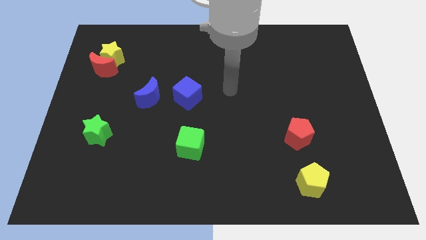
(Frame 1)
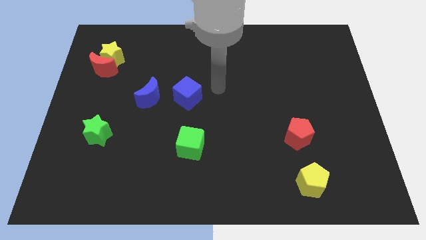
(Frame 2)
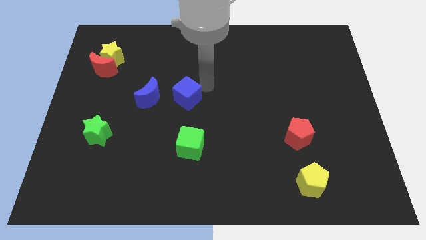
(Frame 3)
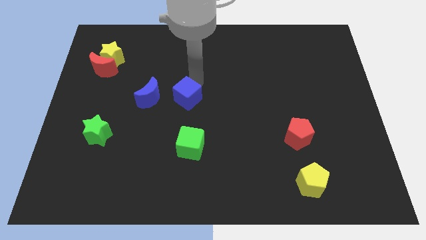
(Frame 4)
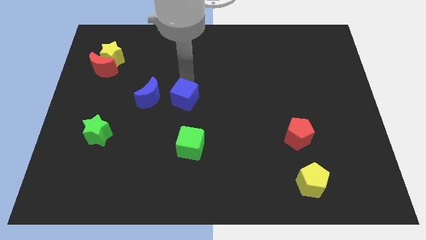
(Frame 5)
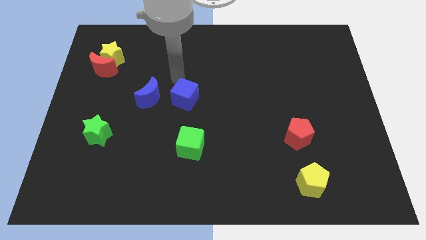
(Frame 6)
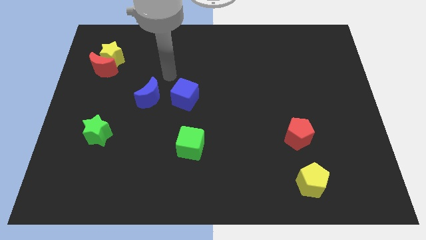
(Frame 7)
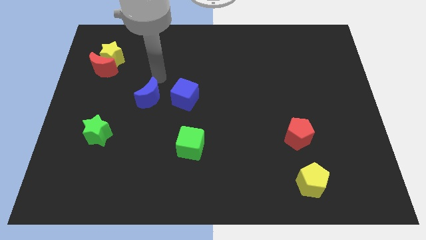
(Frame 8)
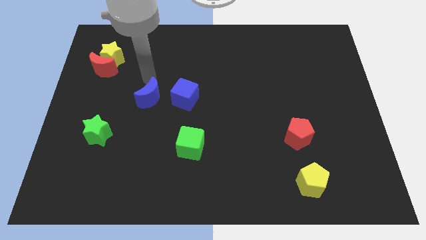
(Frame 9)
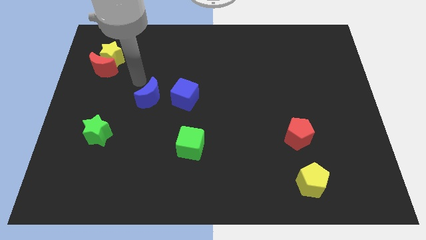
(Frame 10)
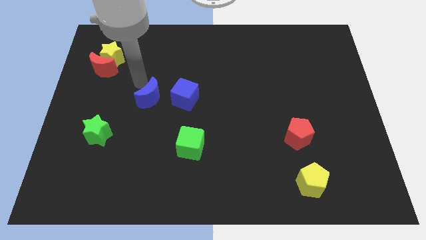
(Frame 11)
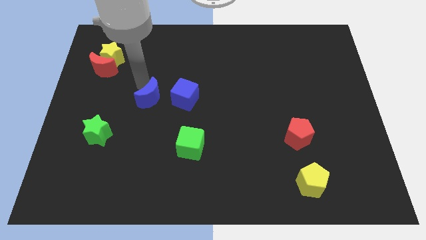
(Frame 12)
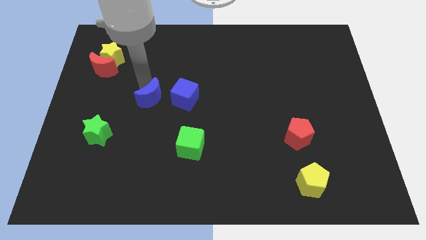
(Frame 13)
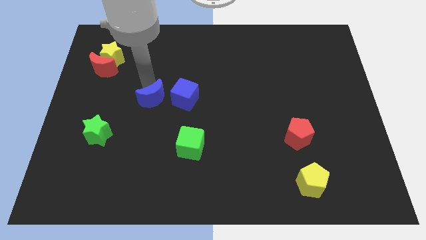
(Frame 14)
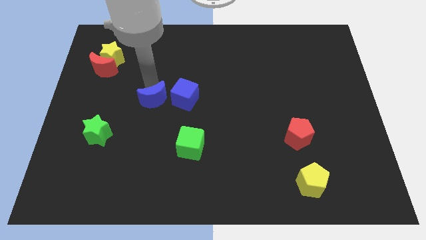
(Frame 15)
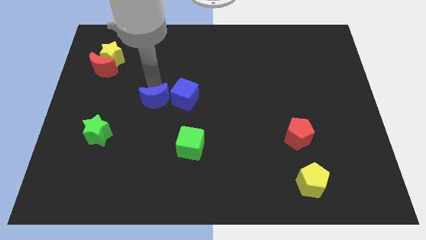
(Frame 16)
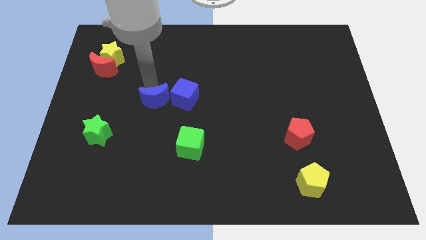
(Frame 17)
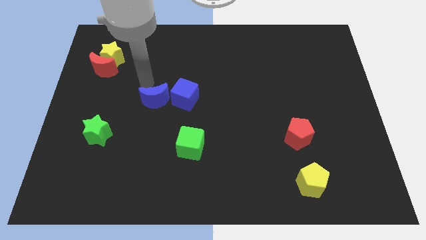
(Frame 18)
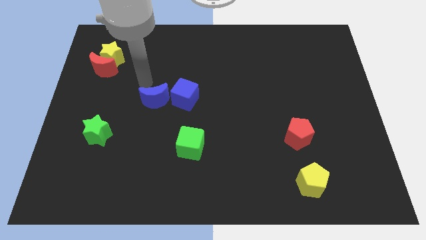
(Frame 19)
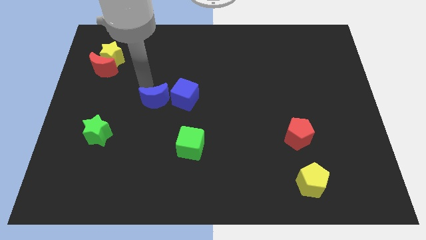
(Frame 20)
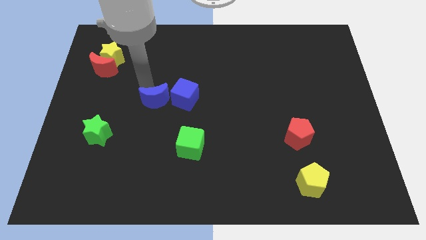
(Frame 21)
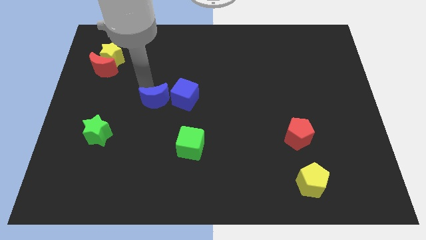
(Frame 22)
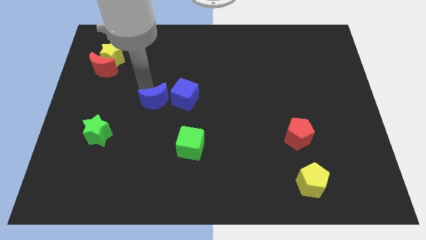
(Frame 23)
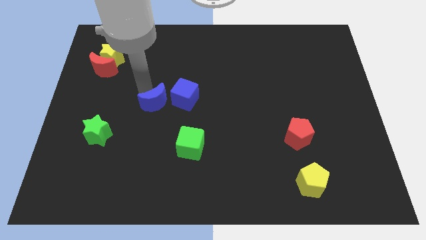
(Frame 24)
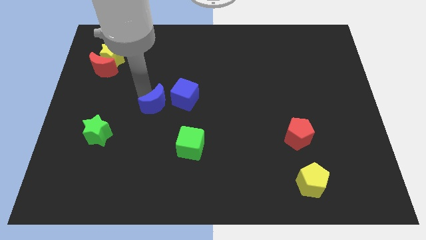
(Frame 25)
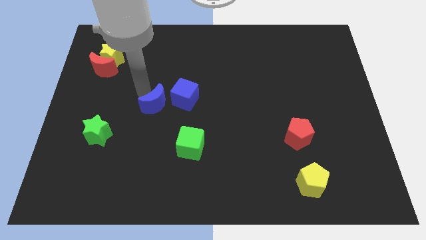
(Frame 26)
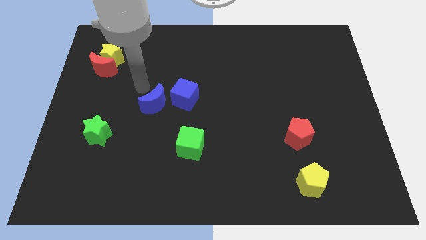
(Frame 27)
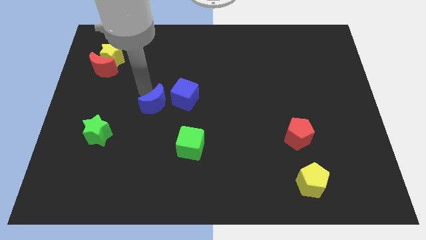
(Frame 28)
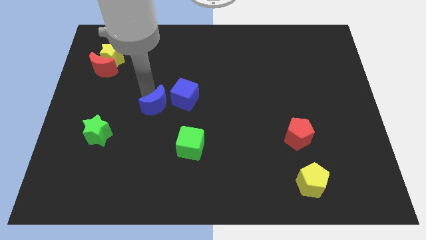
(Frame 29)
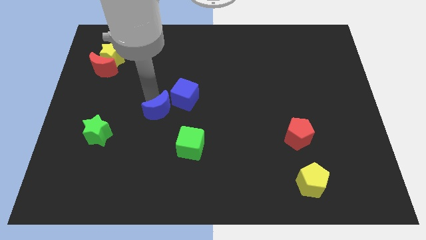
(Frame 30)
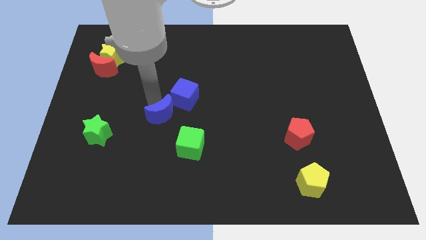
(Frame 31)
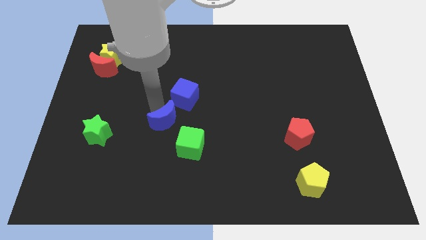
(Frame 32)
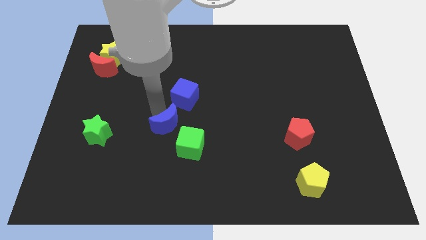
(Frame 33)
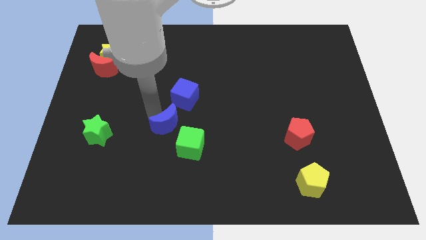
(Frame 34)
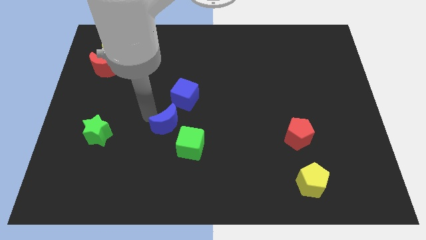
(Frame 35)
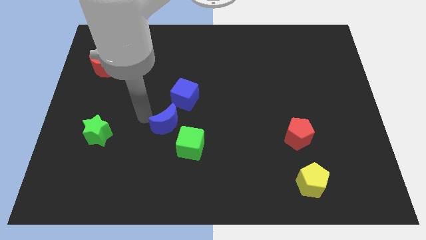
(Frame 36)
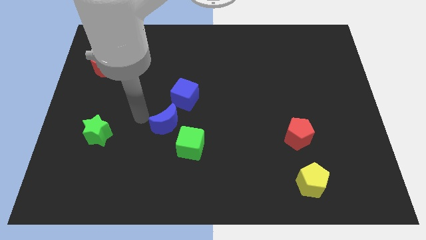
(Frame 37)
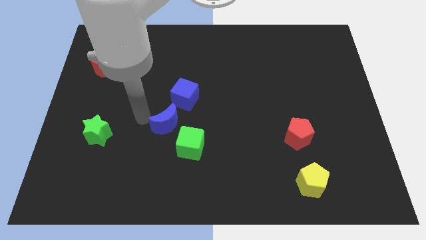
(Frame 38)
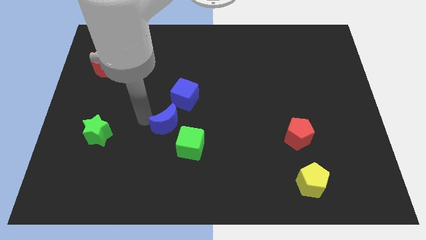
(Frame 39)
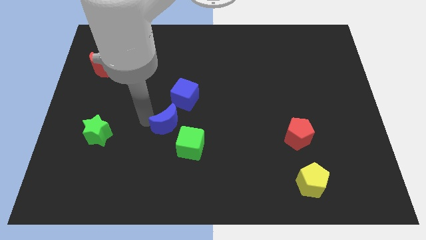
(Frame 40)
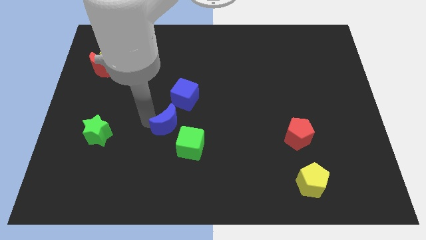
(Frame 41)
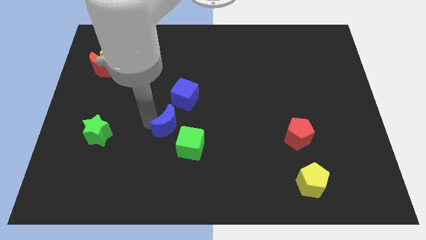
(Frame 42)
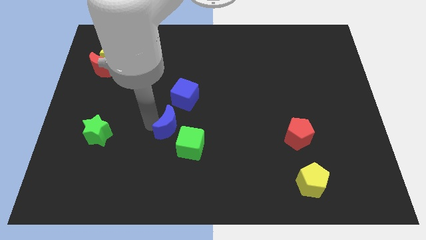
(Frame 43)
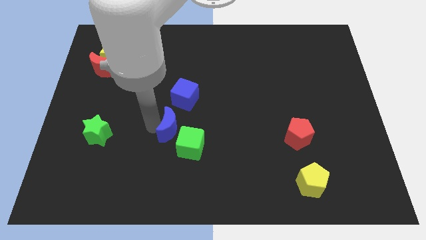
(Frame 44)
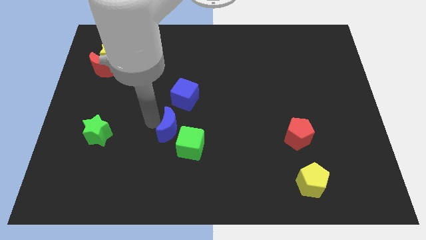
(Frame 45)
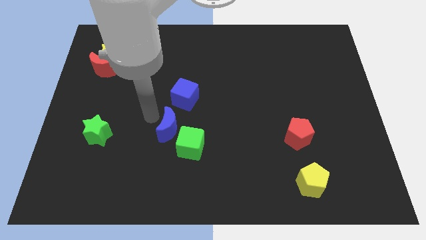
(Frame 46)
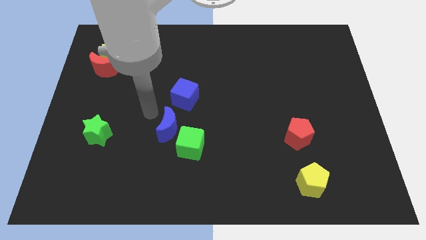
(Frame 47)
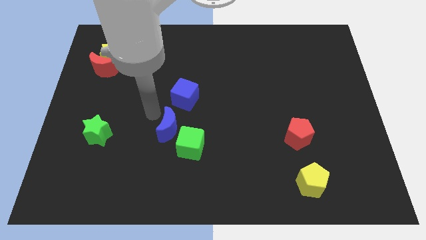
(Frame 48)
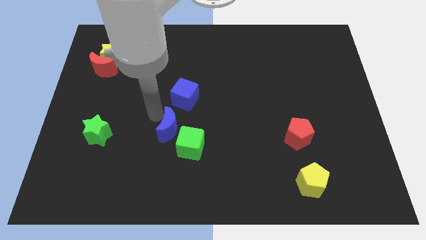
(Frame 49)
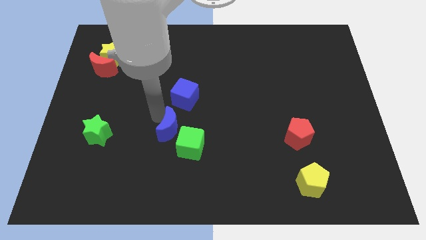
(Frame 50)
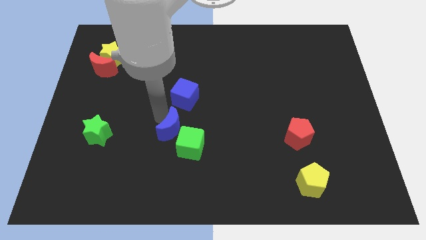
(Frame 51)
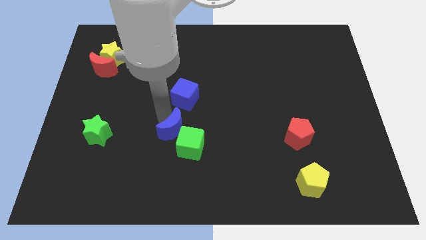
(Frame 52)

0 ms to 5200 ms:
slide the blue moon towards the green cube

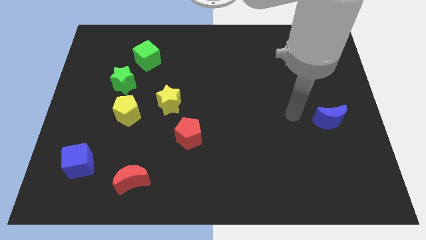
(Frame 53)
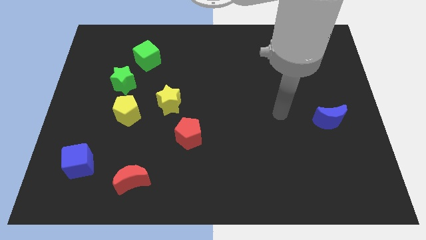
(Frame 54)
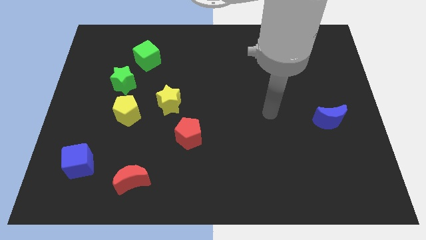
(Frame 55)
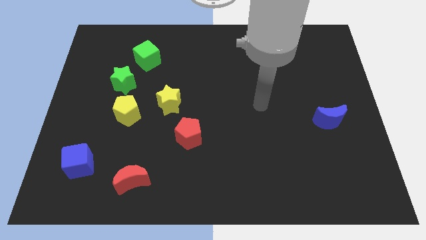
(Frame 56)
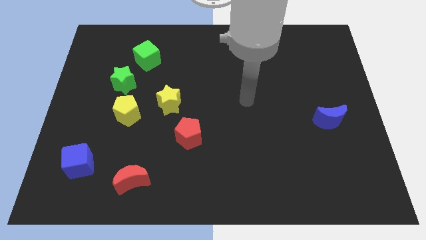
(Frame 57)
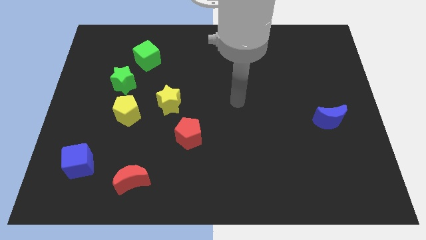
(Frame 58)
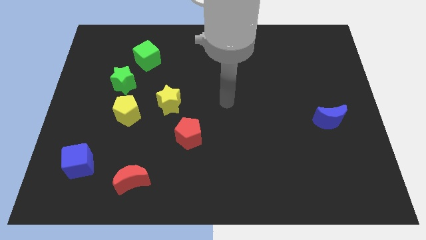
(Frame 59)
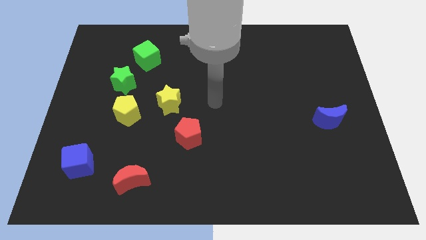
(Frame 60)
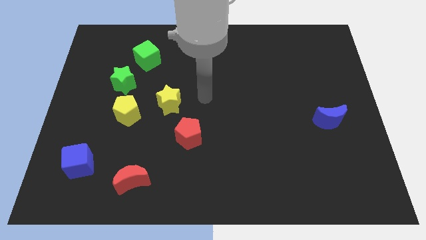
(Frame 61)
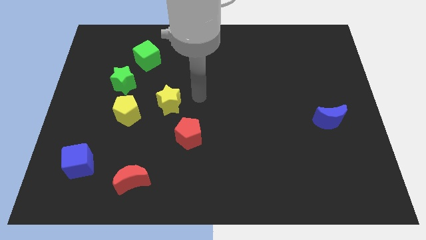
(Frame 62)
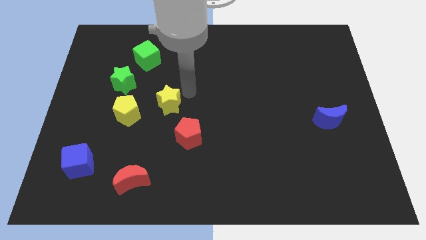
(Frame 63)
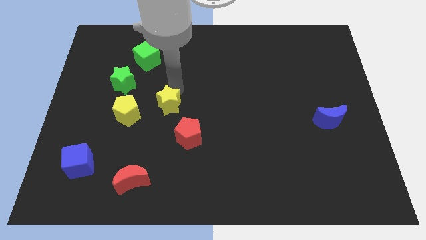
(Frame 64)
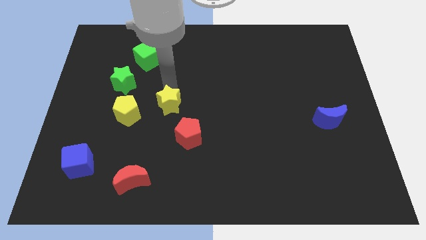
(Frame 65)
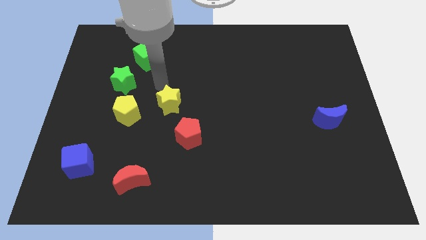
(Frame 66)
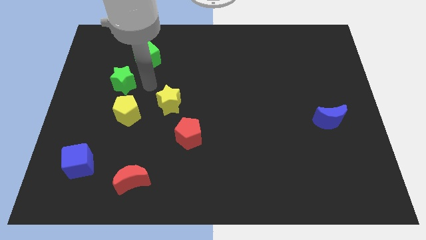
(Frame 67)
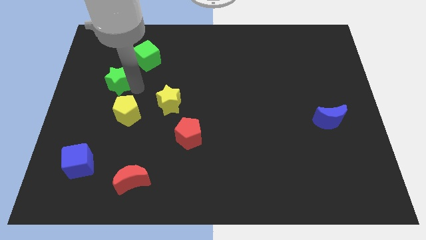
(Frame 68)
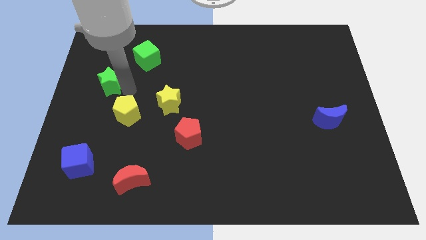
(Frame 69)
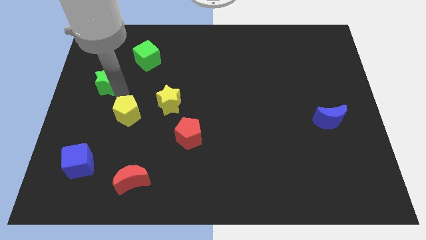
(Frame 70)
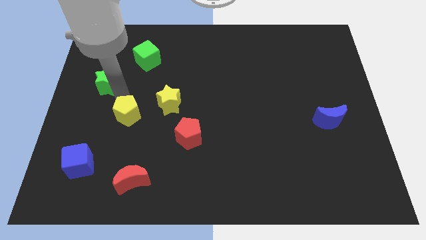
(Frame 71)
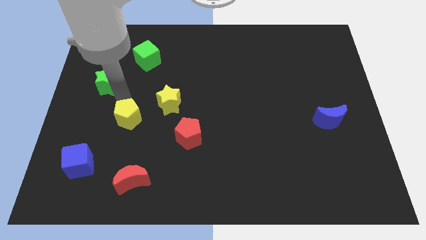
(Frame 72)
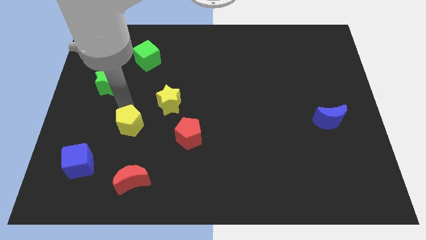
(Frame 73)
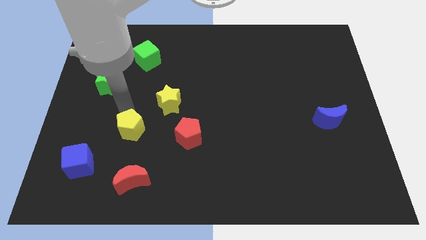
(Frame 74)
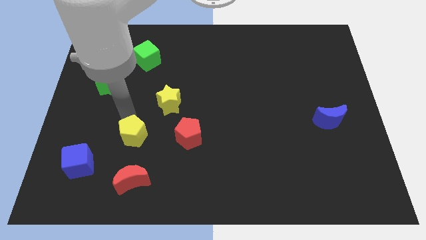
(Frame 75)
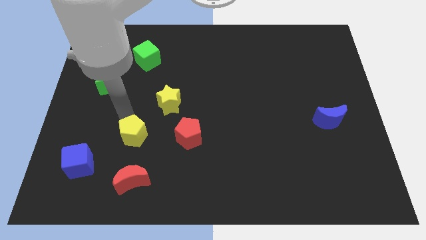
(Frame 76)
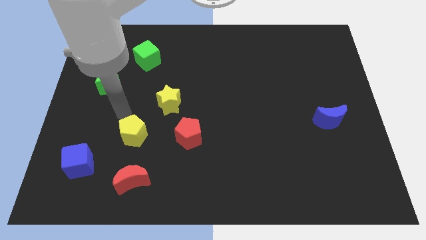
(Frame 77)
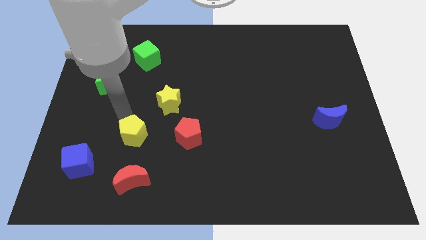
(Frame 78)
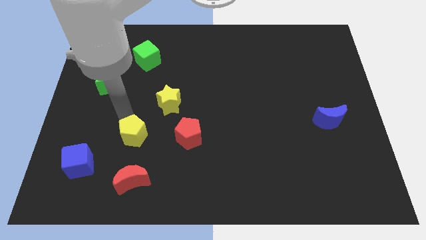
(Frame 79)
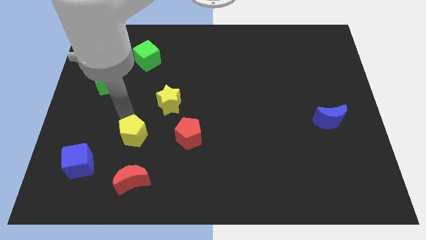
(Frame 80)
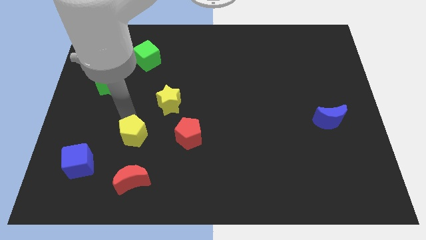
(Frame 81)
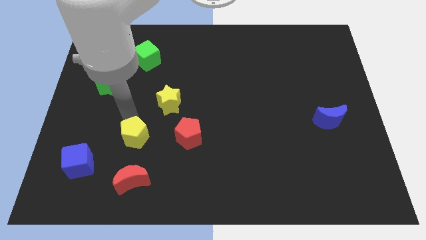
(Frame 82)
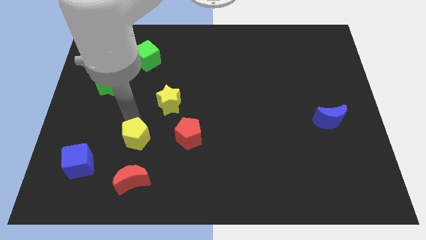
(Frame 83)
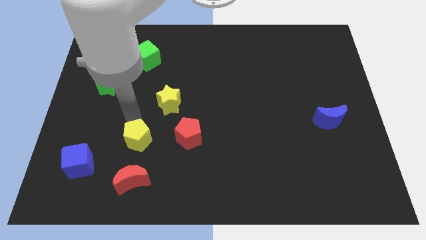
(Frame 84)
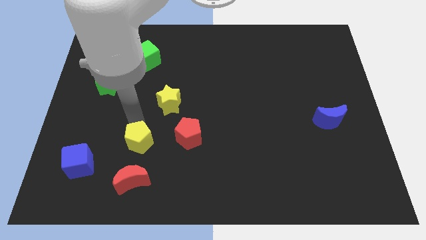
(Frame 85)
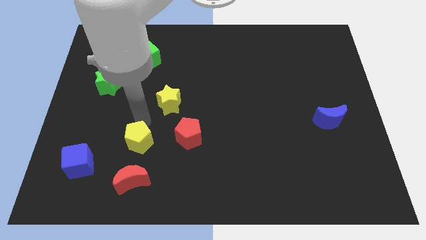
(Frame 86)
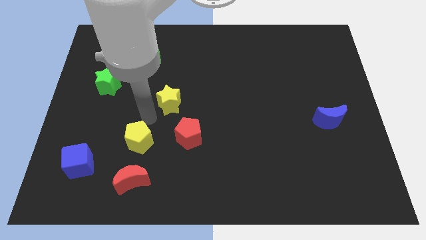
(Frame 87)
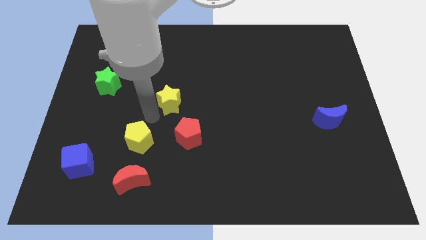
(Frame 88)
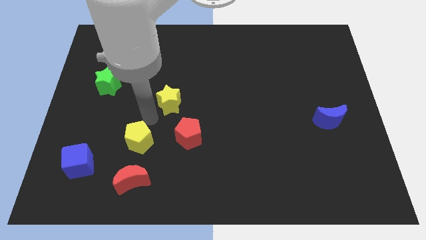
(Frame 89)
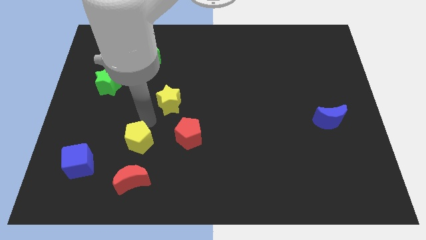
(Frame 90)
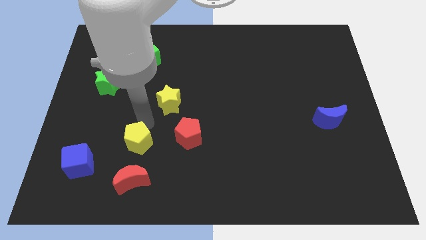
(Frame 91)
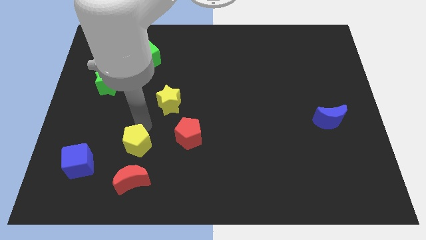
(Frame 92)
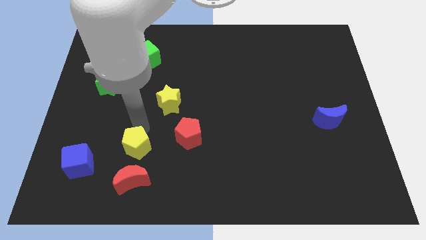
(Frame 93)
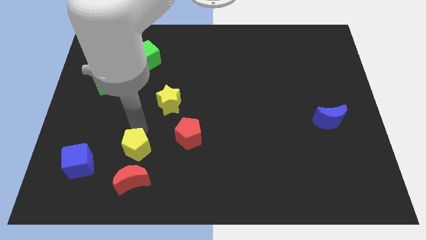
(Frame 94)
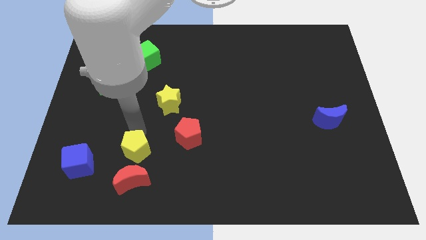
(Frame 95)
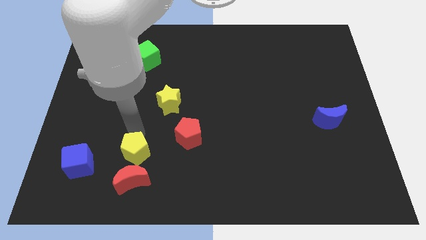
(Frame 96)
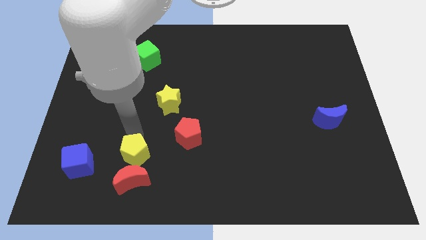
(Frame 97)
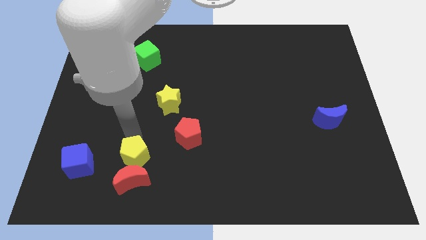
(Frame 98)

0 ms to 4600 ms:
move the yellow pentagon next to the red moon
